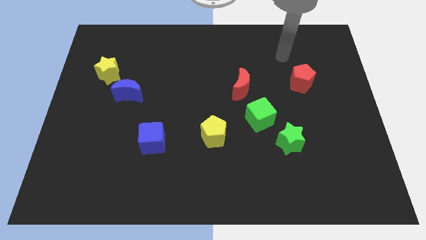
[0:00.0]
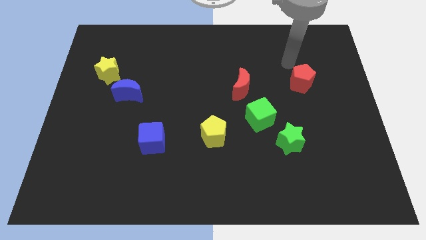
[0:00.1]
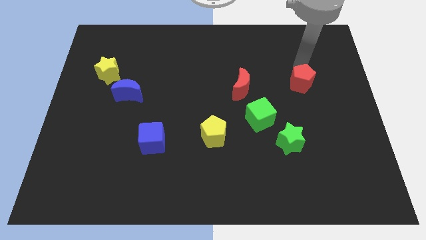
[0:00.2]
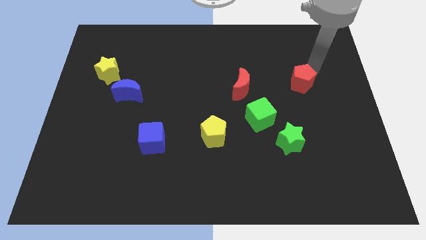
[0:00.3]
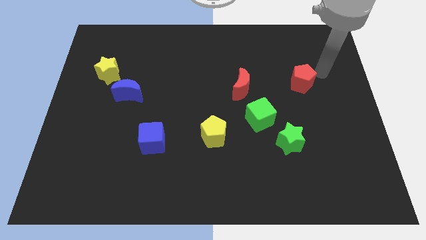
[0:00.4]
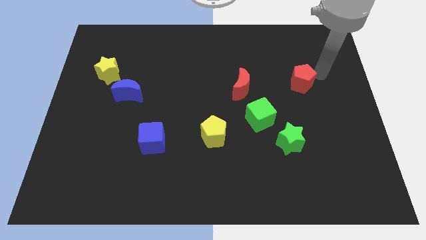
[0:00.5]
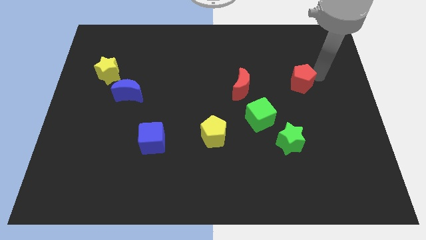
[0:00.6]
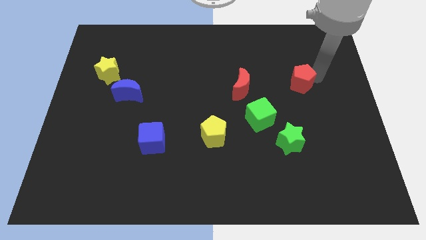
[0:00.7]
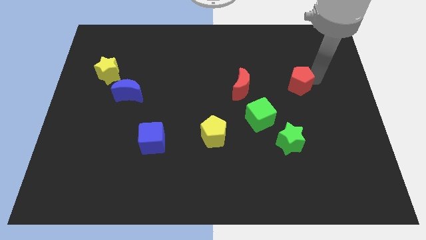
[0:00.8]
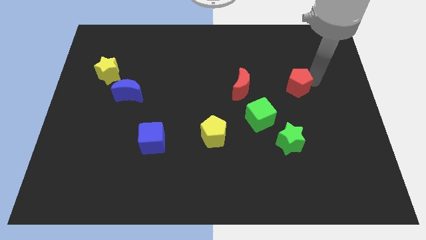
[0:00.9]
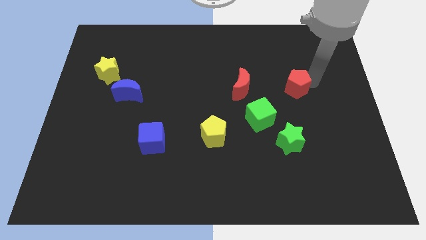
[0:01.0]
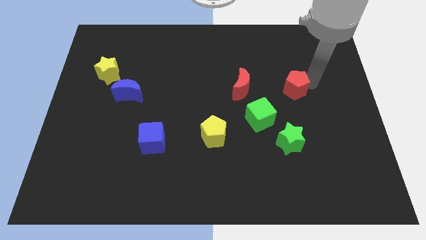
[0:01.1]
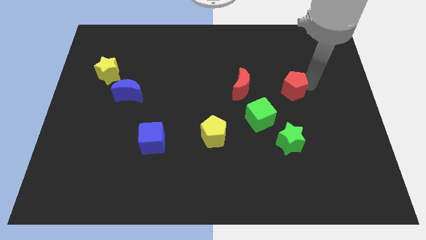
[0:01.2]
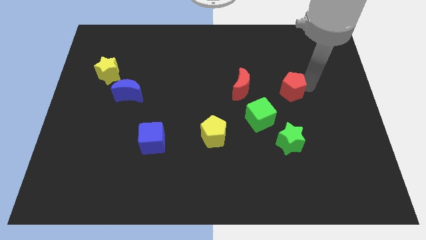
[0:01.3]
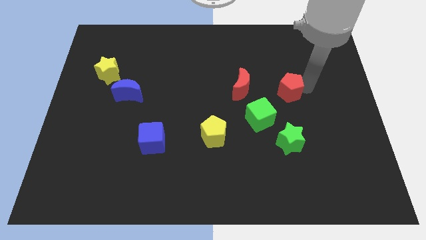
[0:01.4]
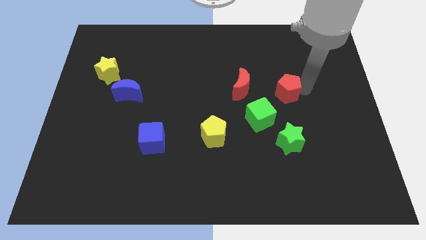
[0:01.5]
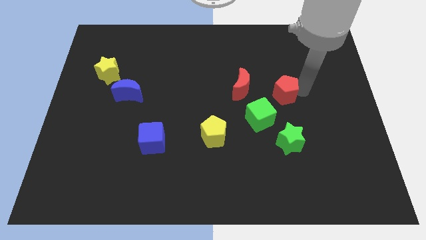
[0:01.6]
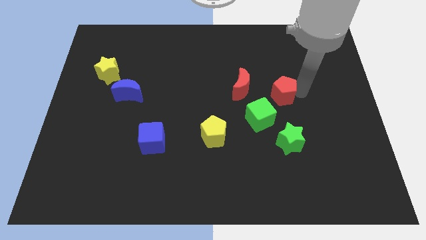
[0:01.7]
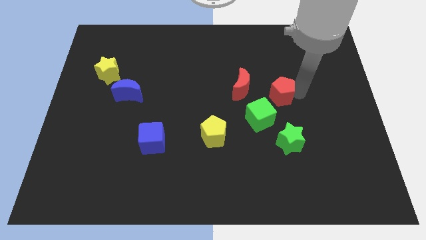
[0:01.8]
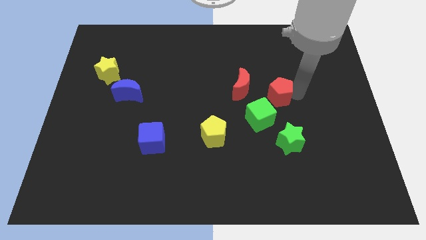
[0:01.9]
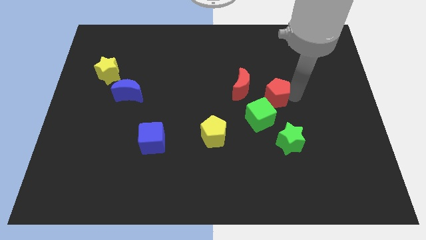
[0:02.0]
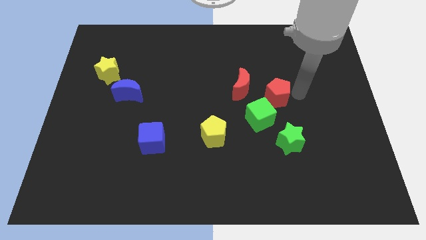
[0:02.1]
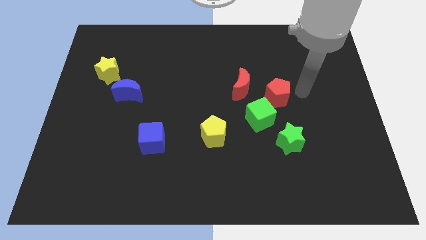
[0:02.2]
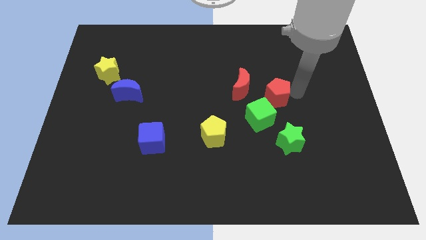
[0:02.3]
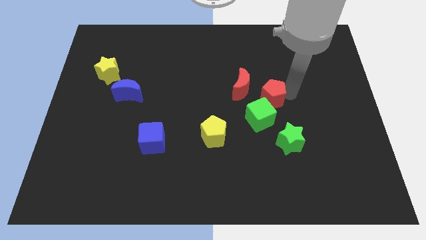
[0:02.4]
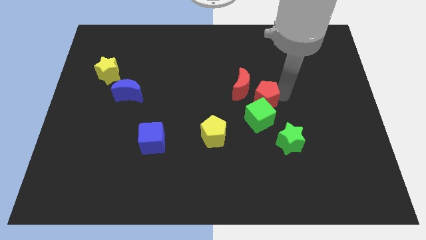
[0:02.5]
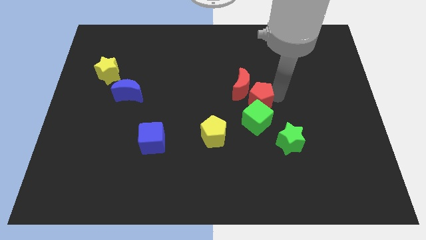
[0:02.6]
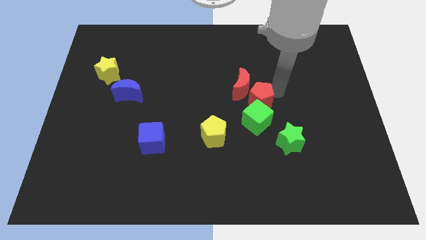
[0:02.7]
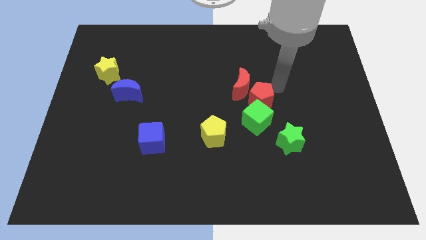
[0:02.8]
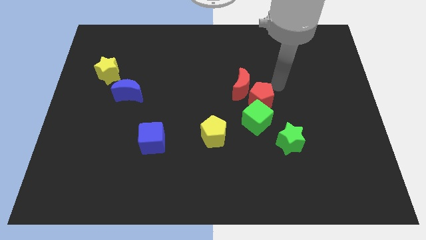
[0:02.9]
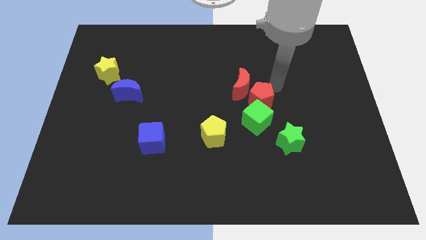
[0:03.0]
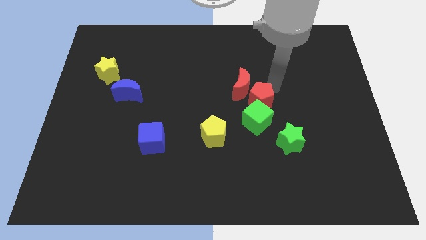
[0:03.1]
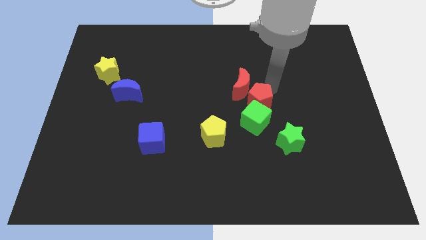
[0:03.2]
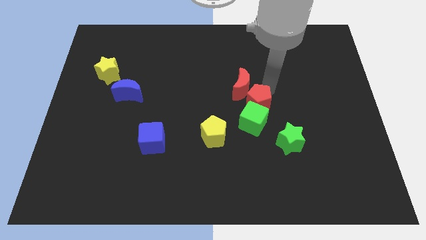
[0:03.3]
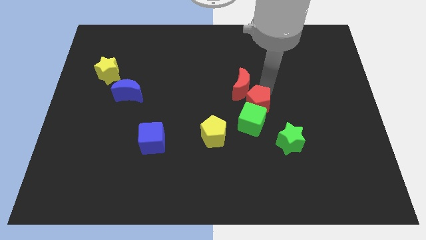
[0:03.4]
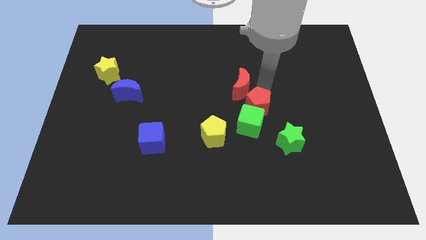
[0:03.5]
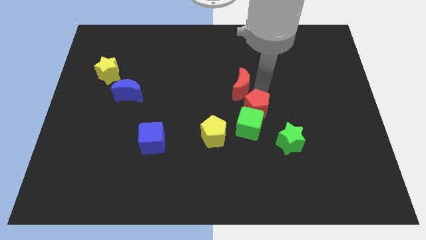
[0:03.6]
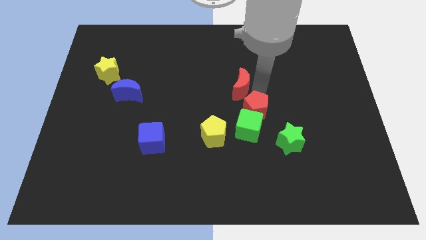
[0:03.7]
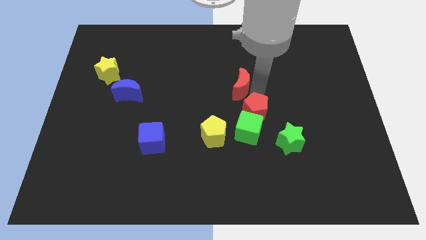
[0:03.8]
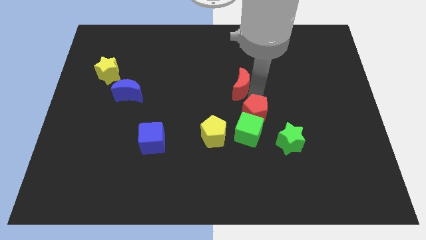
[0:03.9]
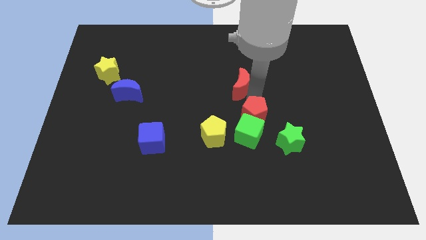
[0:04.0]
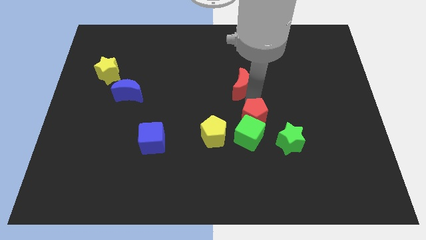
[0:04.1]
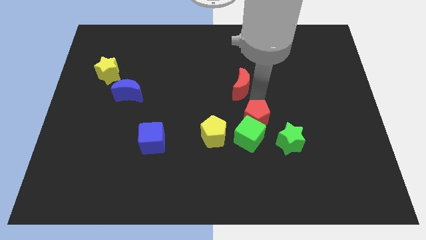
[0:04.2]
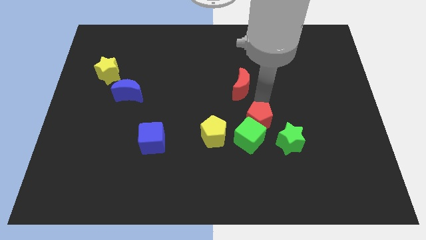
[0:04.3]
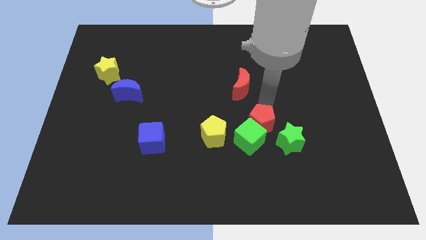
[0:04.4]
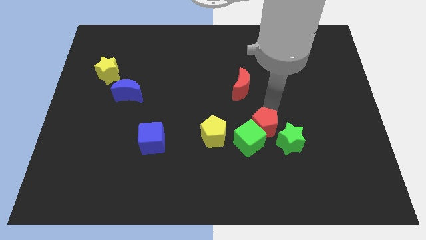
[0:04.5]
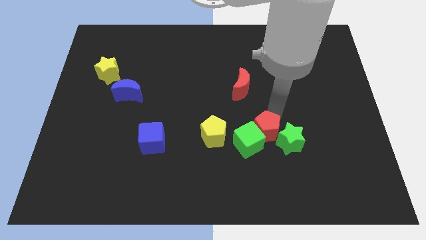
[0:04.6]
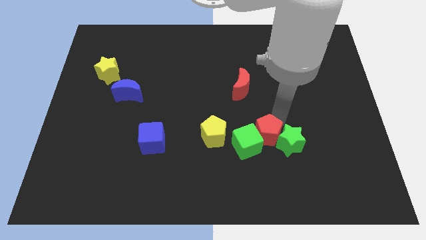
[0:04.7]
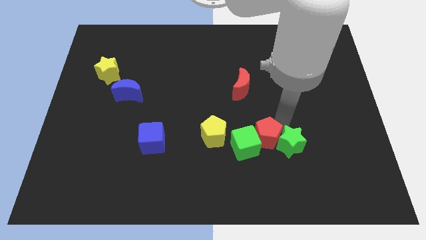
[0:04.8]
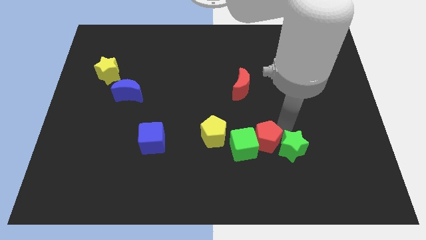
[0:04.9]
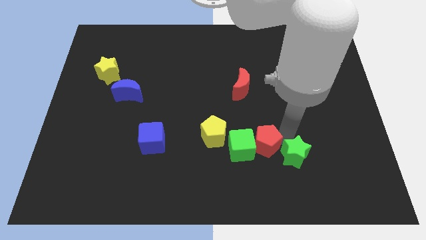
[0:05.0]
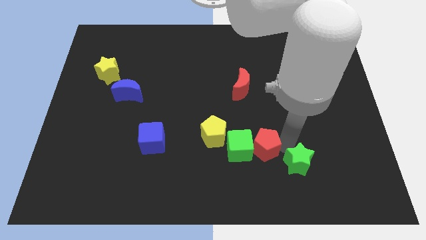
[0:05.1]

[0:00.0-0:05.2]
move the red pentagon down and left

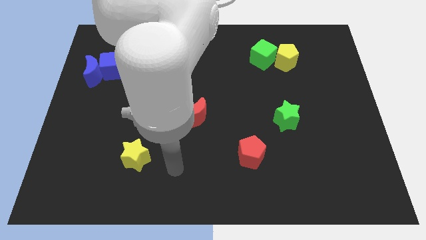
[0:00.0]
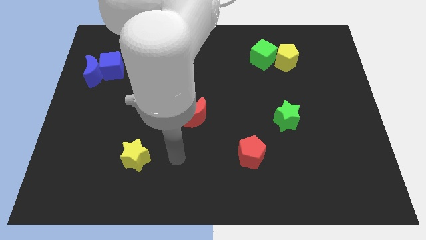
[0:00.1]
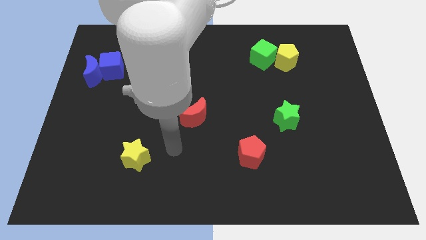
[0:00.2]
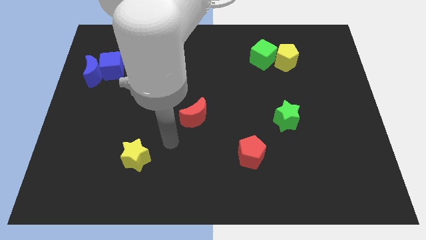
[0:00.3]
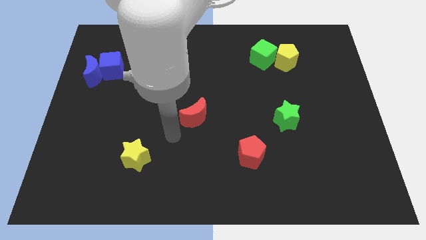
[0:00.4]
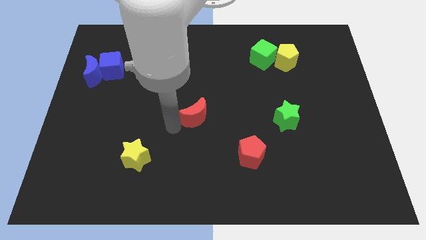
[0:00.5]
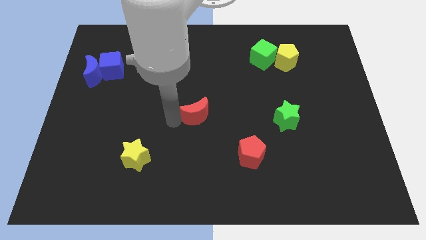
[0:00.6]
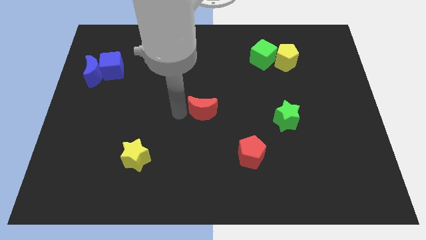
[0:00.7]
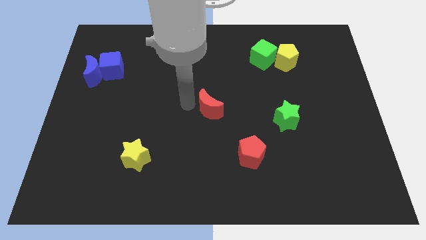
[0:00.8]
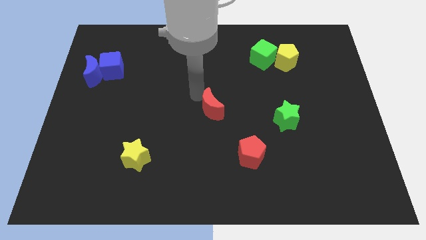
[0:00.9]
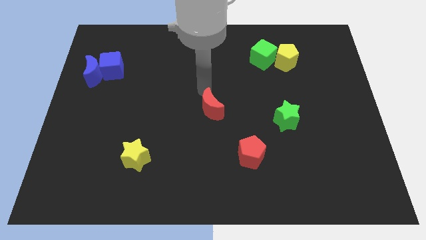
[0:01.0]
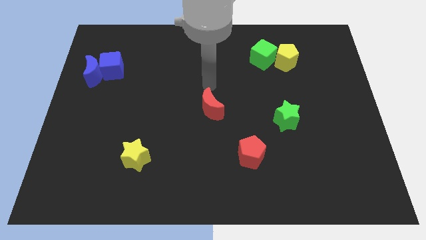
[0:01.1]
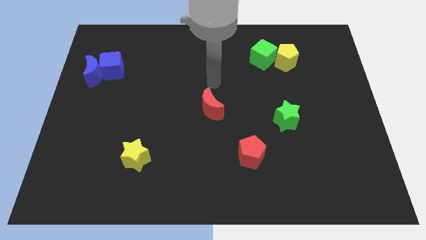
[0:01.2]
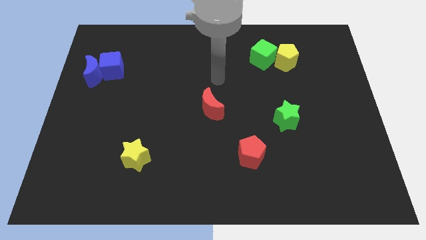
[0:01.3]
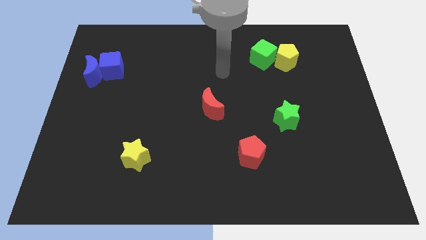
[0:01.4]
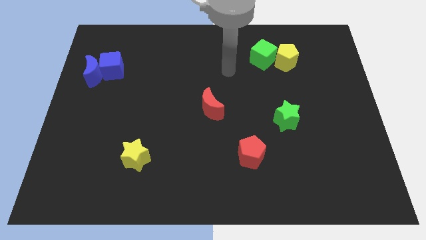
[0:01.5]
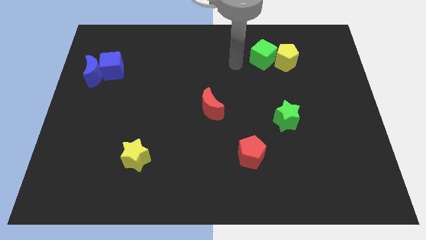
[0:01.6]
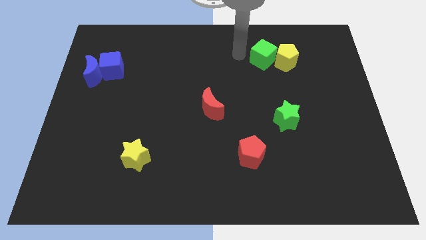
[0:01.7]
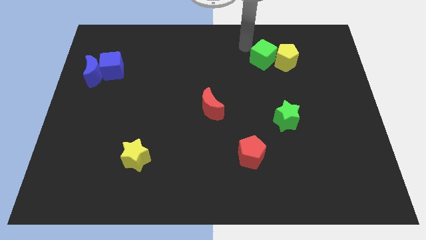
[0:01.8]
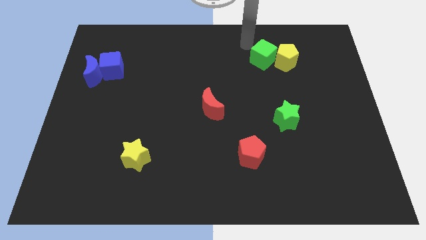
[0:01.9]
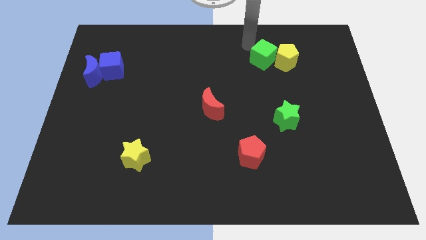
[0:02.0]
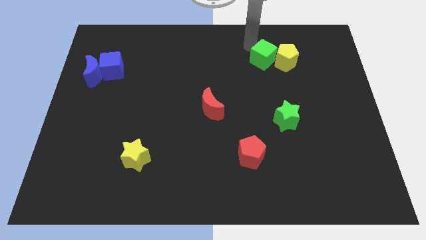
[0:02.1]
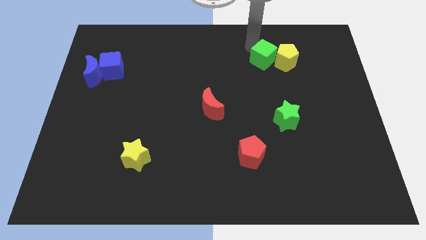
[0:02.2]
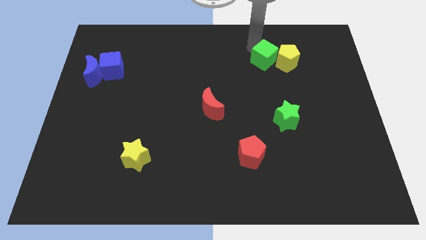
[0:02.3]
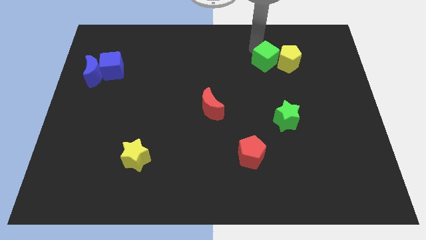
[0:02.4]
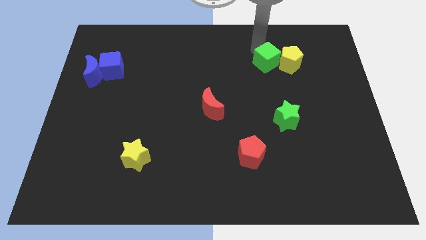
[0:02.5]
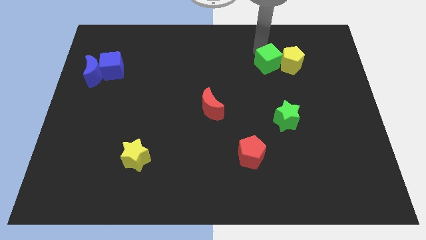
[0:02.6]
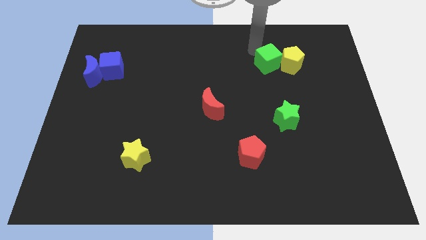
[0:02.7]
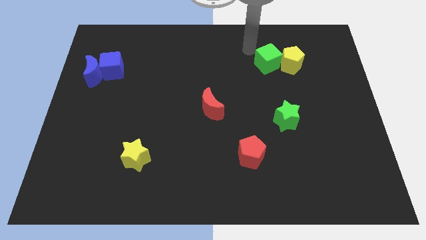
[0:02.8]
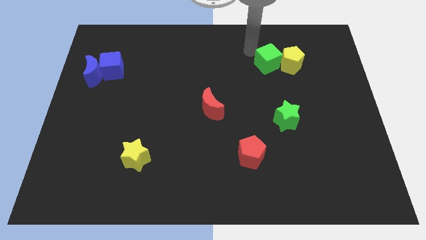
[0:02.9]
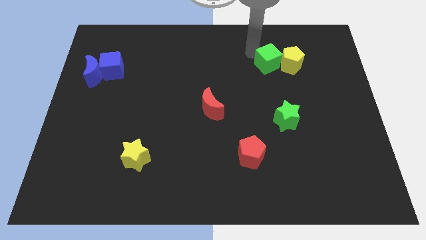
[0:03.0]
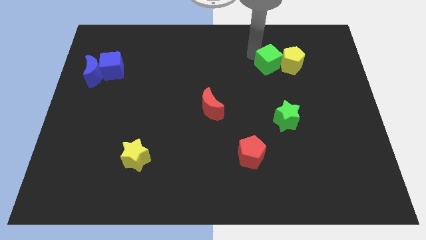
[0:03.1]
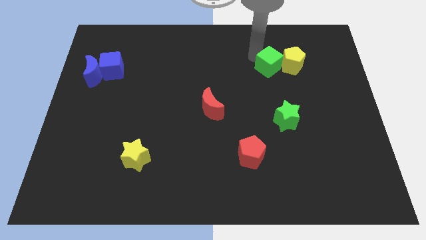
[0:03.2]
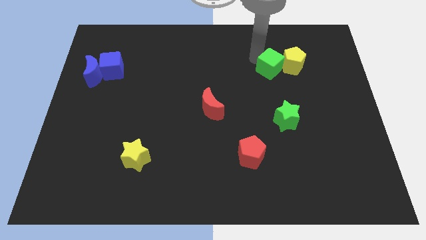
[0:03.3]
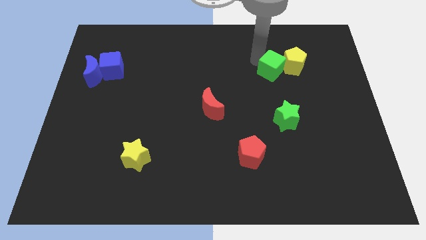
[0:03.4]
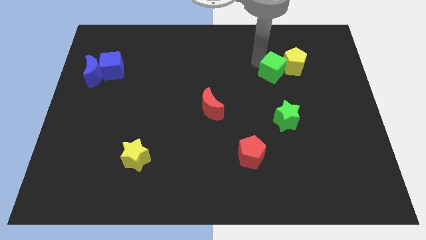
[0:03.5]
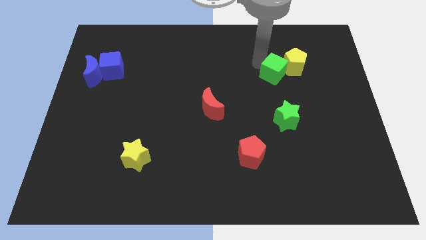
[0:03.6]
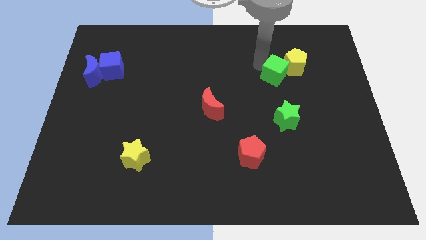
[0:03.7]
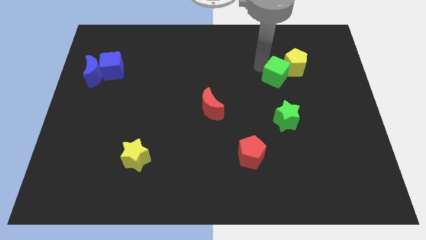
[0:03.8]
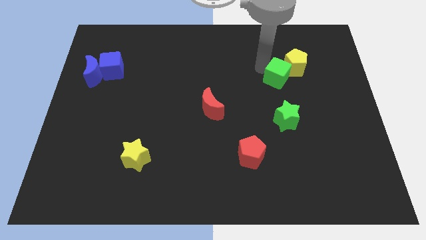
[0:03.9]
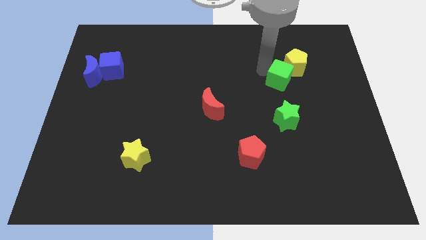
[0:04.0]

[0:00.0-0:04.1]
slide the green cube down and then right a little bit
